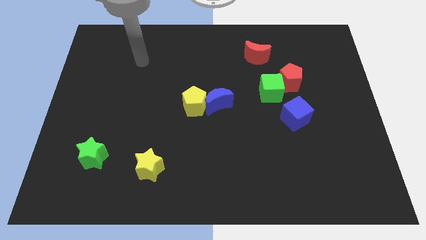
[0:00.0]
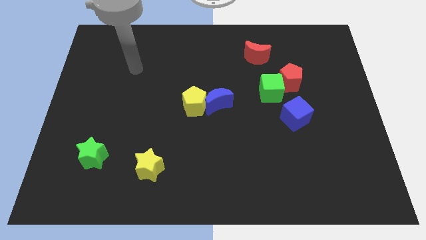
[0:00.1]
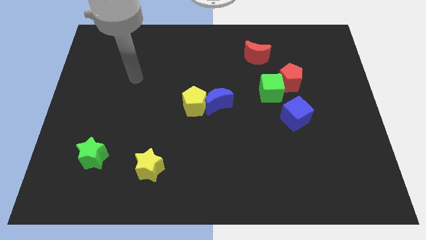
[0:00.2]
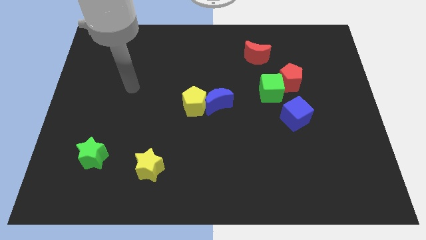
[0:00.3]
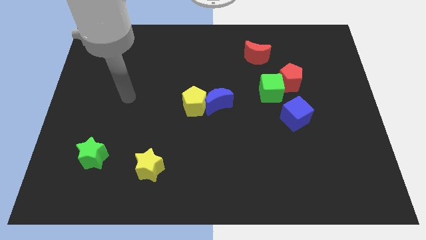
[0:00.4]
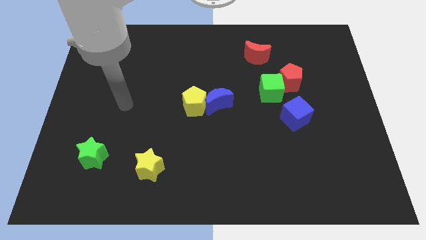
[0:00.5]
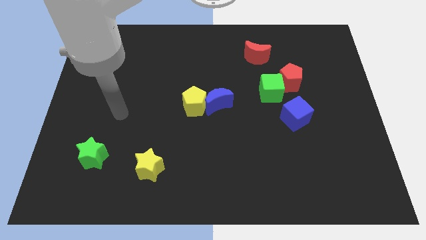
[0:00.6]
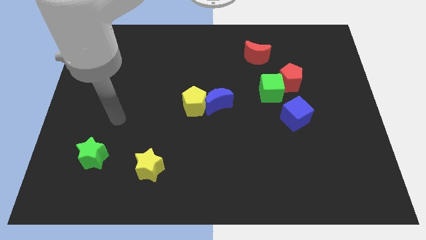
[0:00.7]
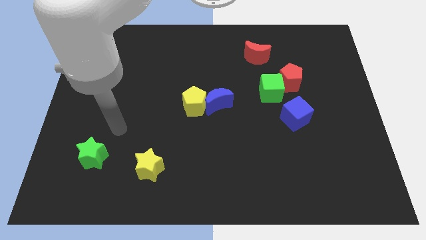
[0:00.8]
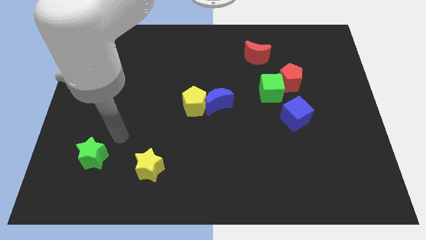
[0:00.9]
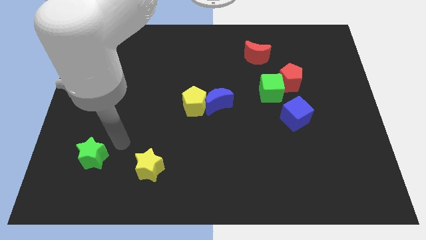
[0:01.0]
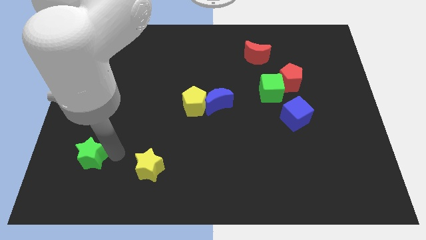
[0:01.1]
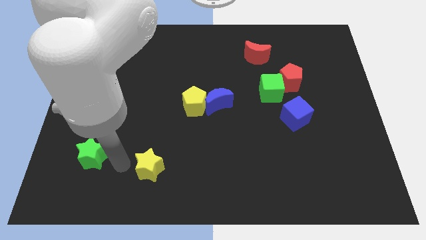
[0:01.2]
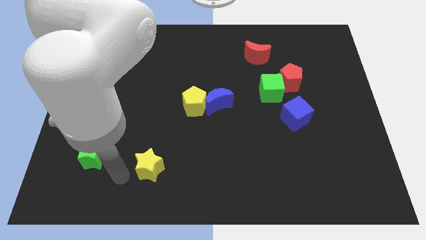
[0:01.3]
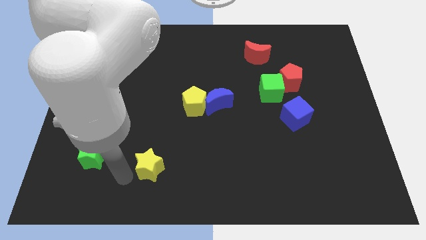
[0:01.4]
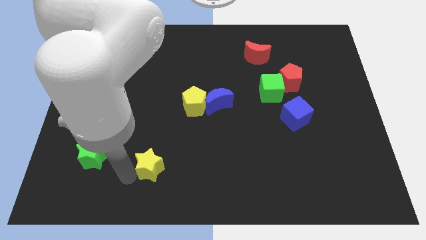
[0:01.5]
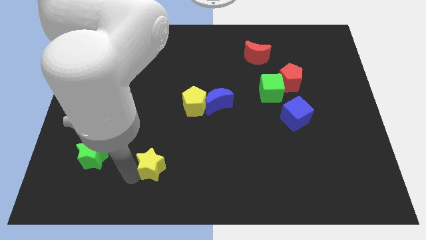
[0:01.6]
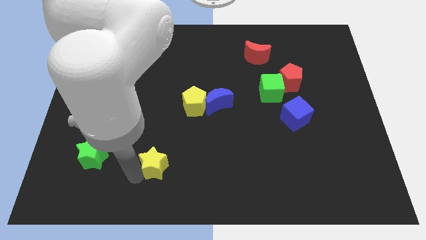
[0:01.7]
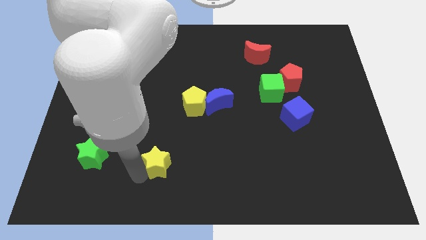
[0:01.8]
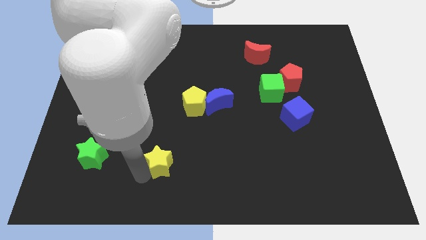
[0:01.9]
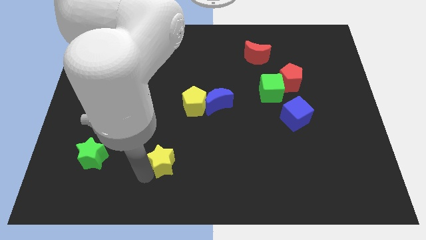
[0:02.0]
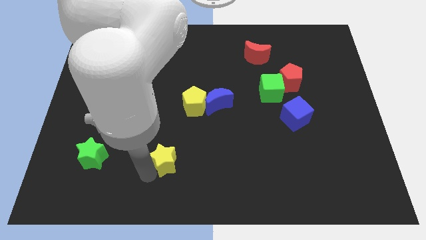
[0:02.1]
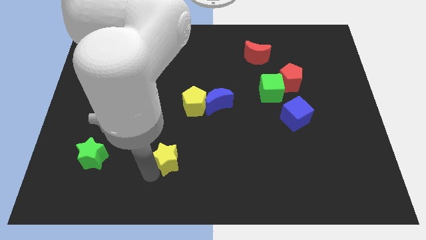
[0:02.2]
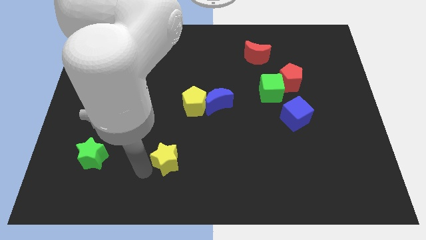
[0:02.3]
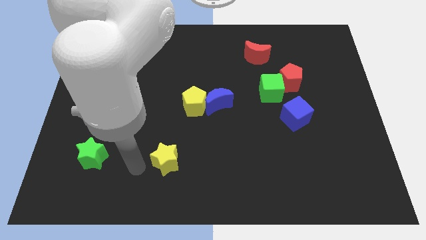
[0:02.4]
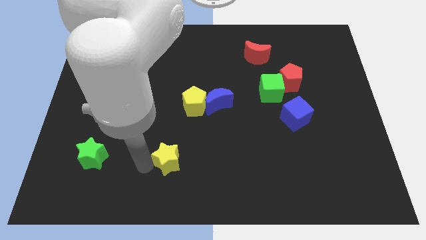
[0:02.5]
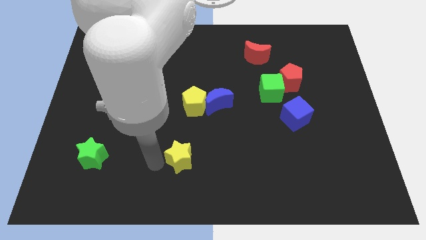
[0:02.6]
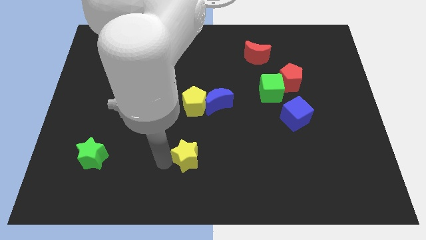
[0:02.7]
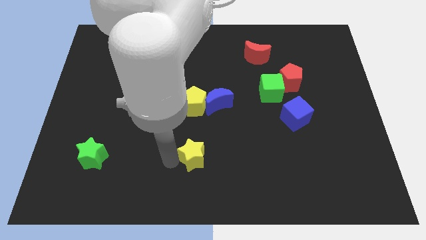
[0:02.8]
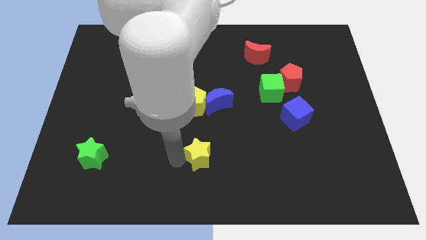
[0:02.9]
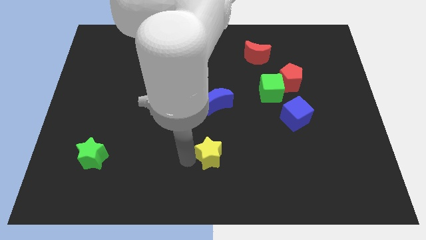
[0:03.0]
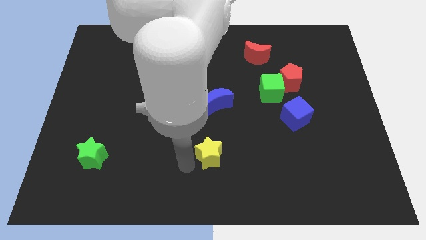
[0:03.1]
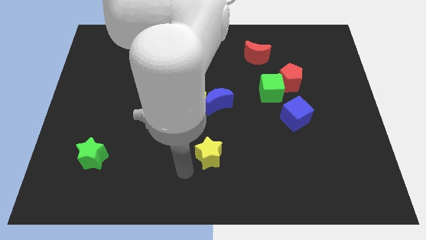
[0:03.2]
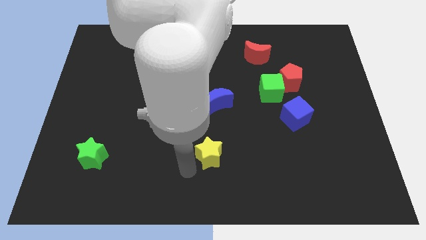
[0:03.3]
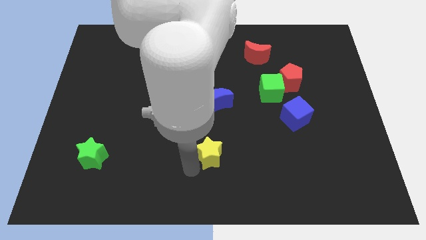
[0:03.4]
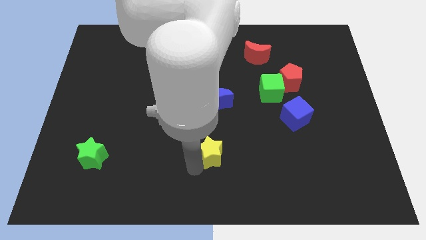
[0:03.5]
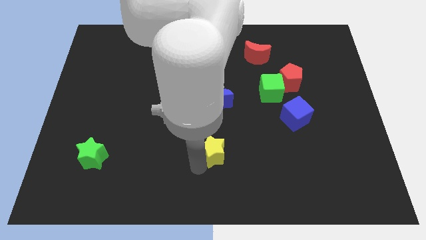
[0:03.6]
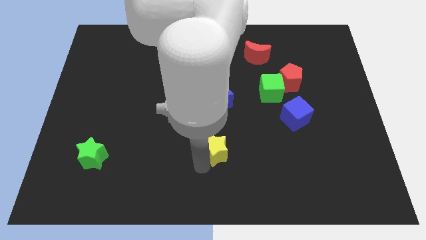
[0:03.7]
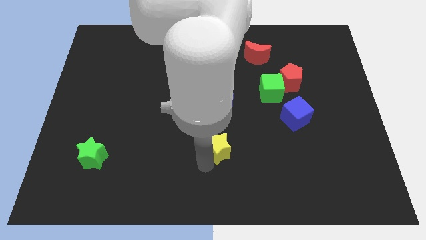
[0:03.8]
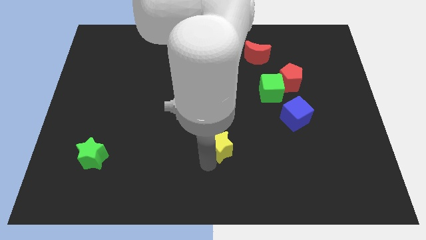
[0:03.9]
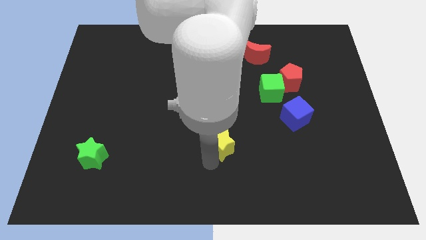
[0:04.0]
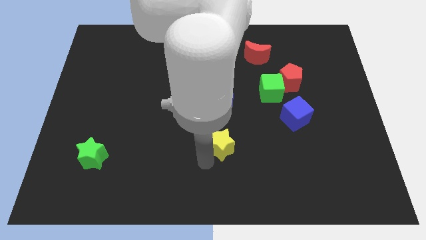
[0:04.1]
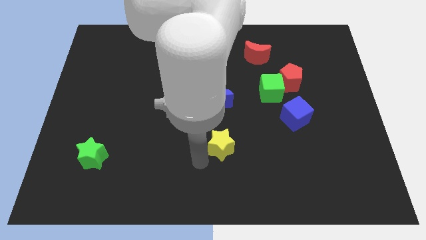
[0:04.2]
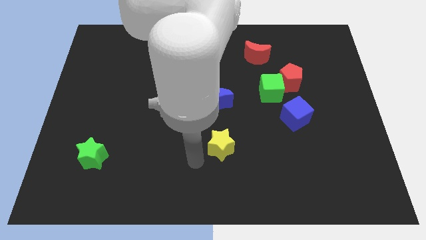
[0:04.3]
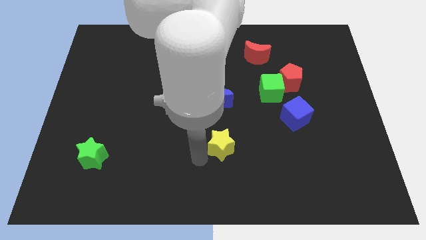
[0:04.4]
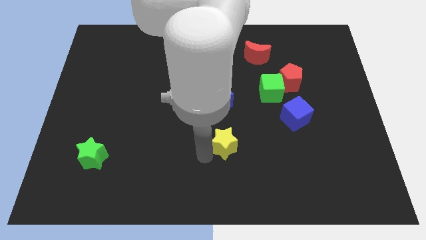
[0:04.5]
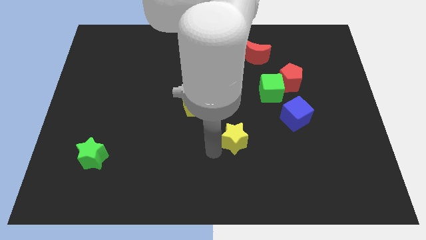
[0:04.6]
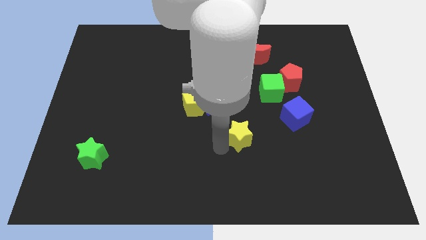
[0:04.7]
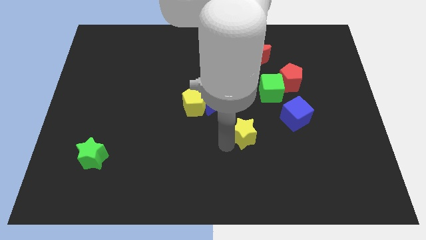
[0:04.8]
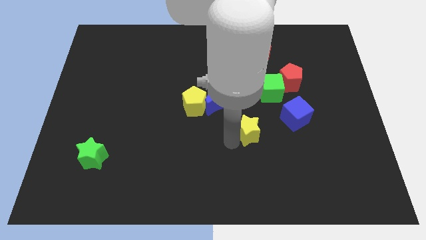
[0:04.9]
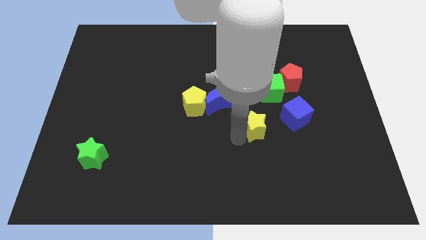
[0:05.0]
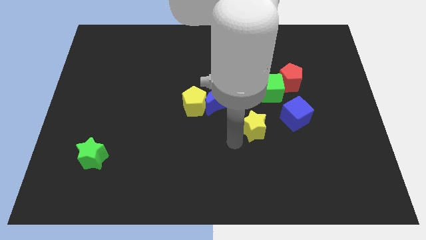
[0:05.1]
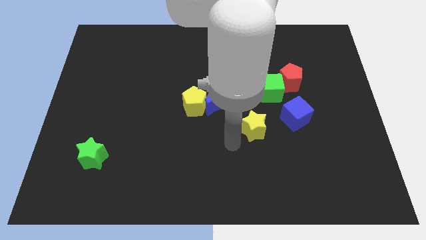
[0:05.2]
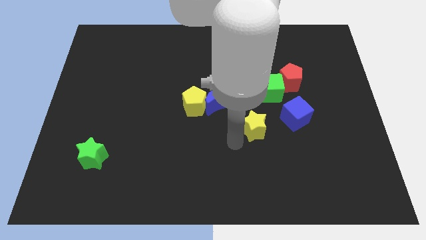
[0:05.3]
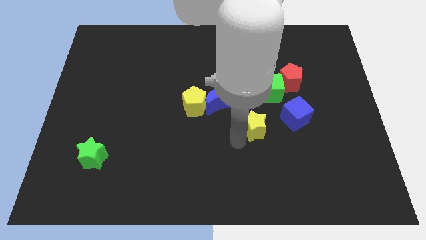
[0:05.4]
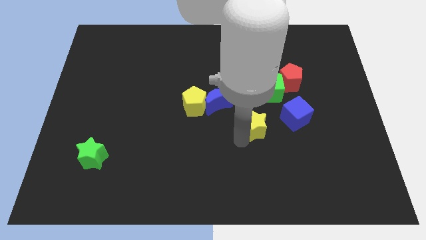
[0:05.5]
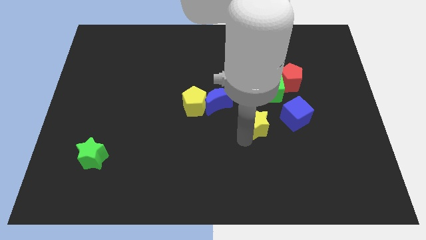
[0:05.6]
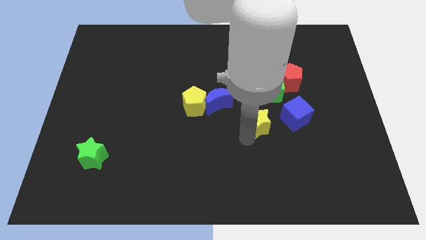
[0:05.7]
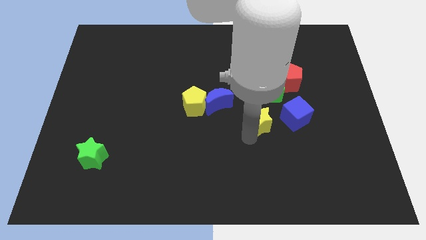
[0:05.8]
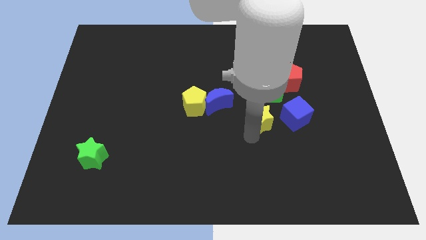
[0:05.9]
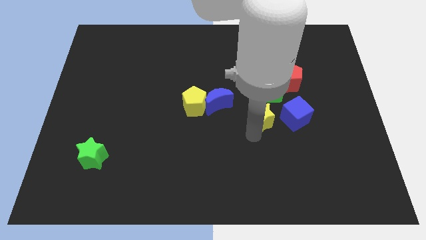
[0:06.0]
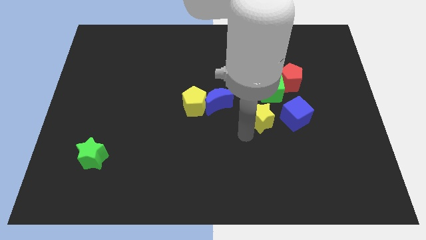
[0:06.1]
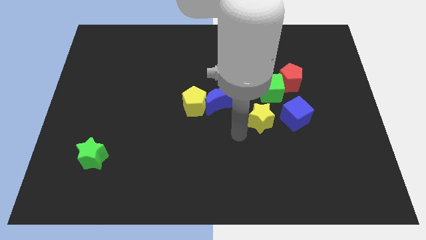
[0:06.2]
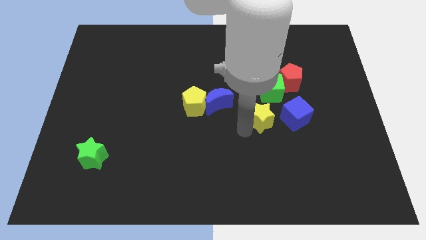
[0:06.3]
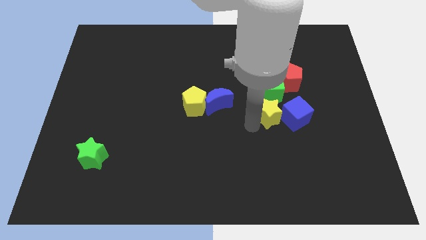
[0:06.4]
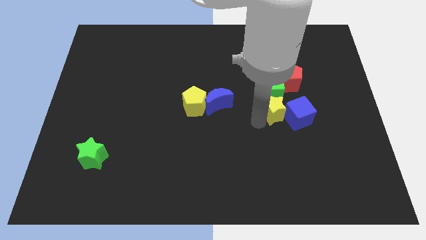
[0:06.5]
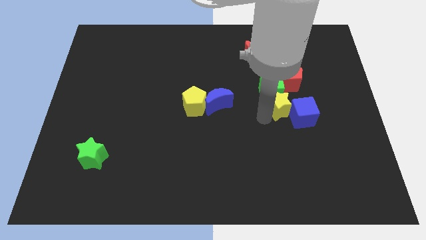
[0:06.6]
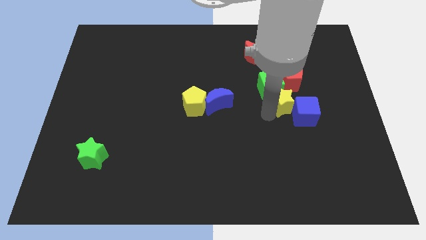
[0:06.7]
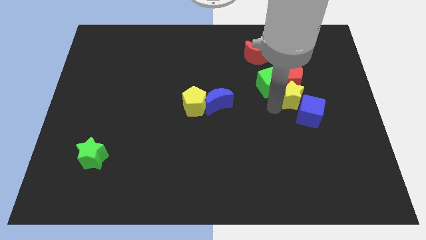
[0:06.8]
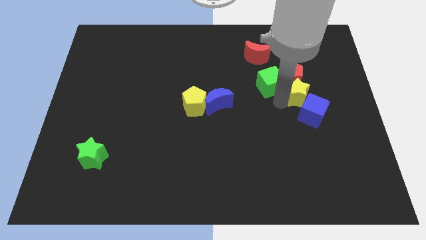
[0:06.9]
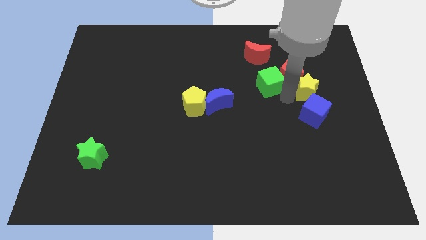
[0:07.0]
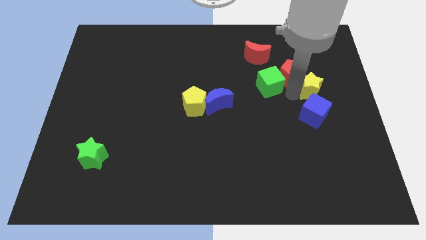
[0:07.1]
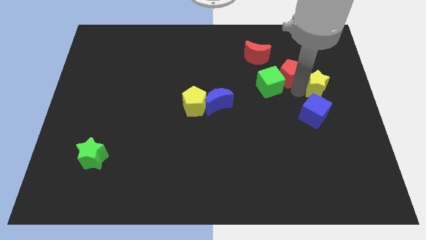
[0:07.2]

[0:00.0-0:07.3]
move the yellow star to the top right of the blue cube

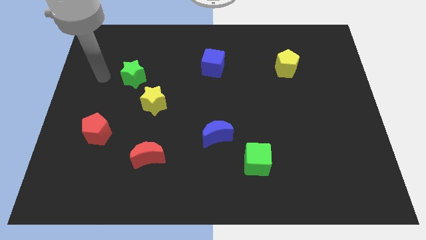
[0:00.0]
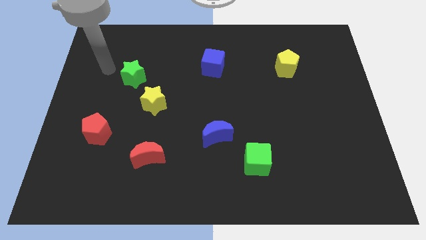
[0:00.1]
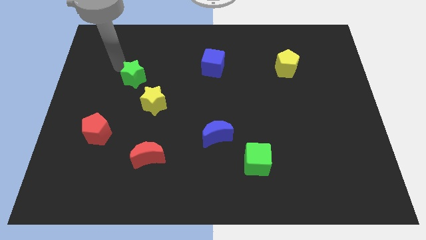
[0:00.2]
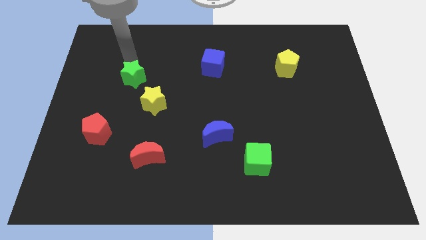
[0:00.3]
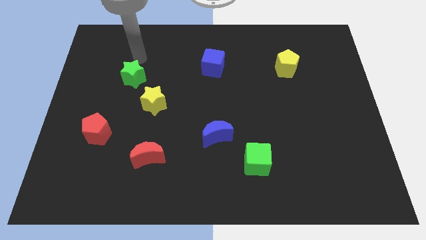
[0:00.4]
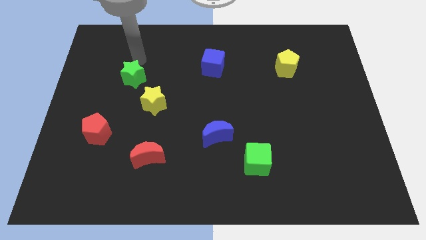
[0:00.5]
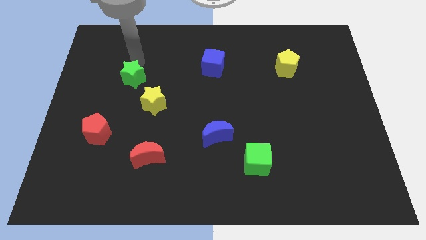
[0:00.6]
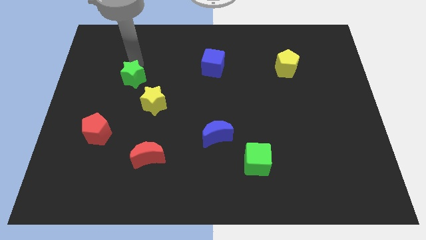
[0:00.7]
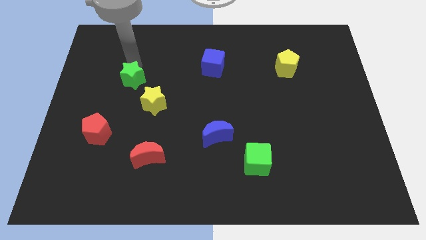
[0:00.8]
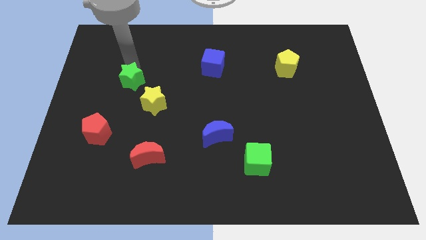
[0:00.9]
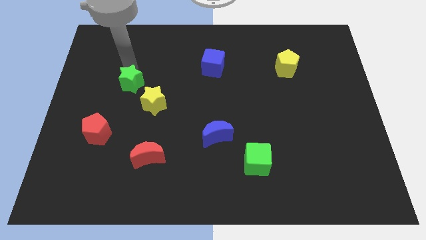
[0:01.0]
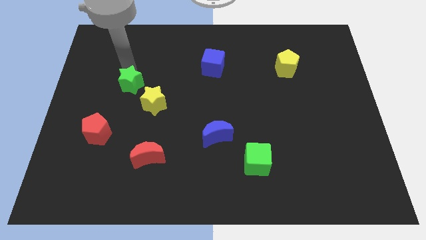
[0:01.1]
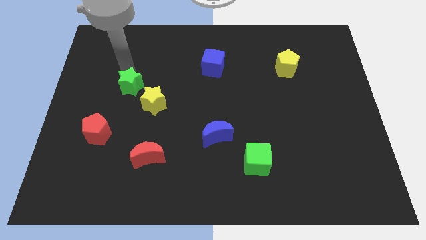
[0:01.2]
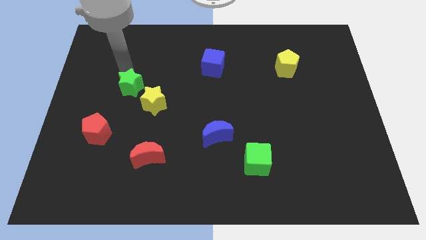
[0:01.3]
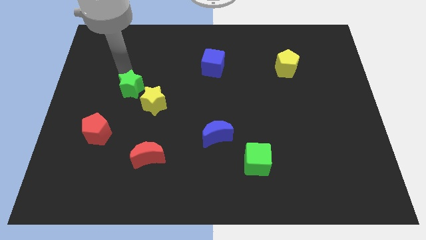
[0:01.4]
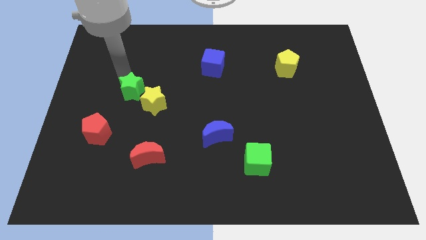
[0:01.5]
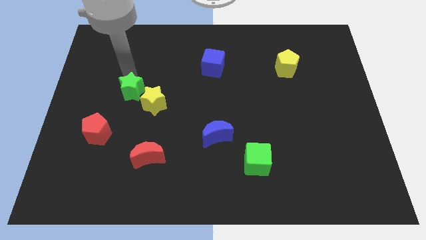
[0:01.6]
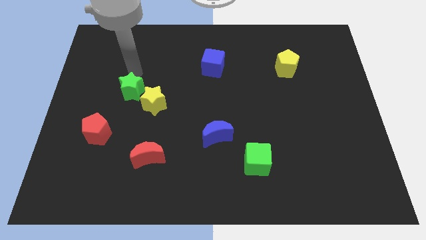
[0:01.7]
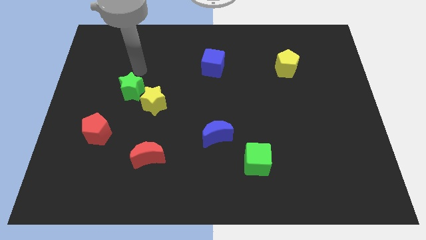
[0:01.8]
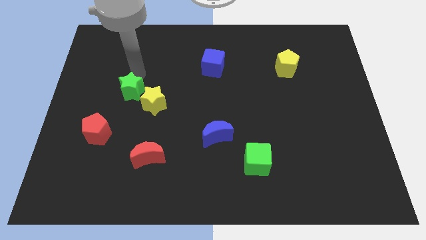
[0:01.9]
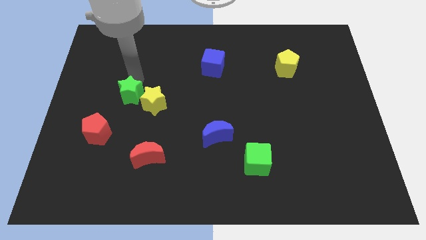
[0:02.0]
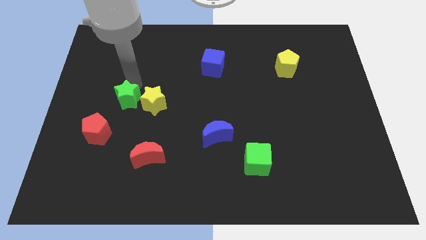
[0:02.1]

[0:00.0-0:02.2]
push the green star to the top right side of the red pentagon
